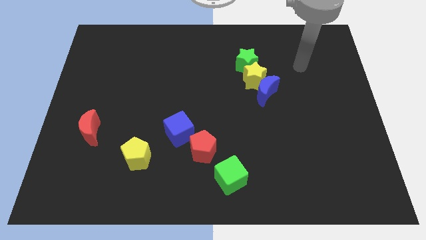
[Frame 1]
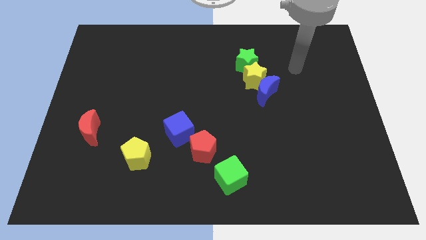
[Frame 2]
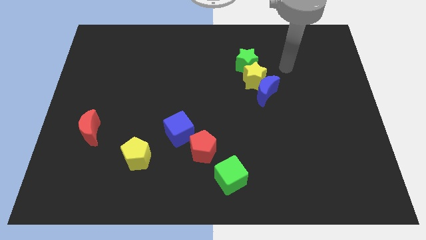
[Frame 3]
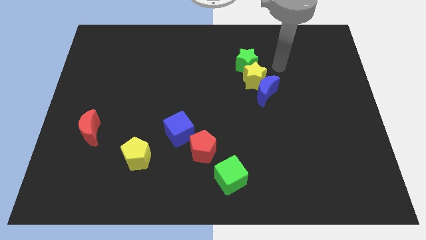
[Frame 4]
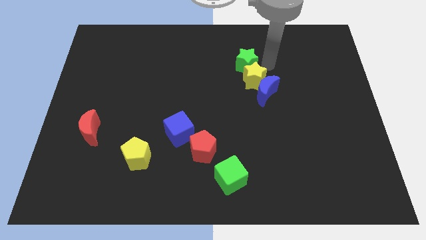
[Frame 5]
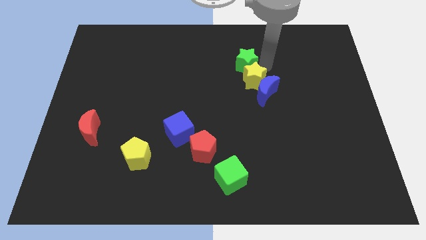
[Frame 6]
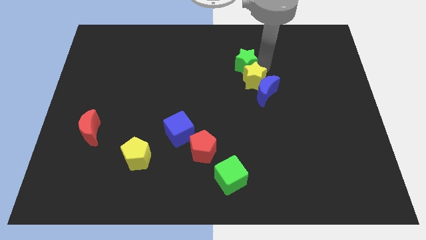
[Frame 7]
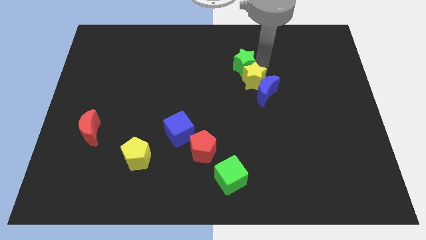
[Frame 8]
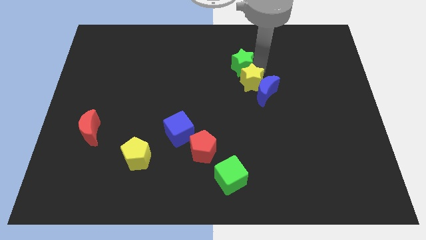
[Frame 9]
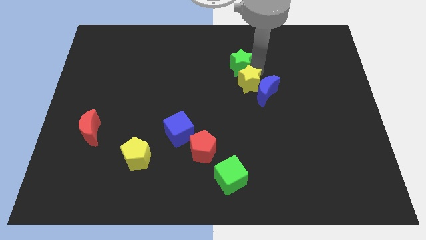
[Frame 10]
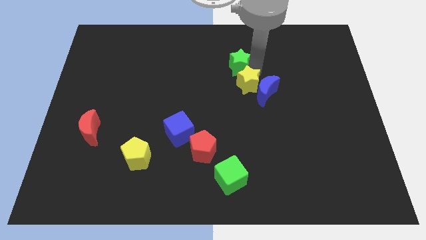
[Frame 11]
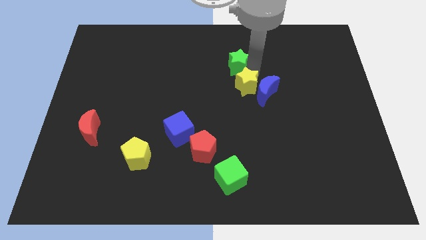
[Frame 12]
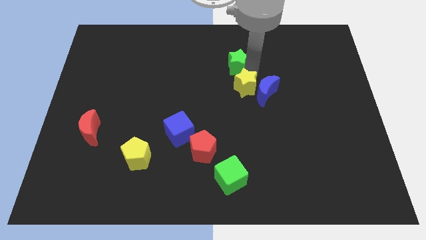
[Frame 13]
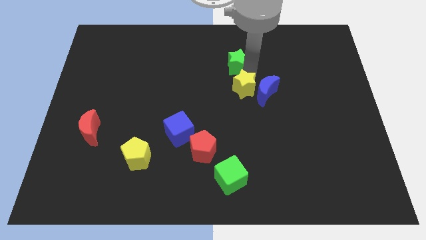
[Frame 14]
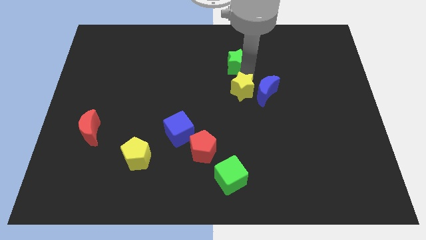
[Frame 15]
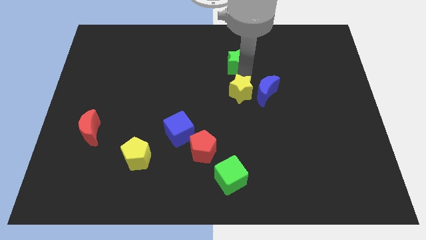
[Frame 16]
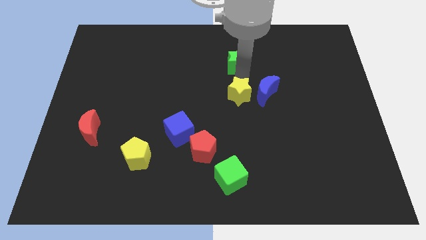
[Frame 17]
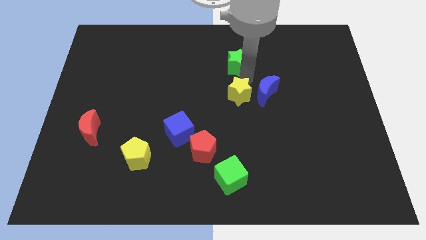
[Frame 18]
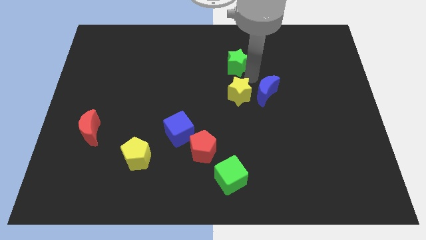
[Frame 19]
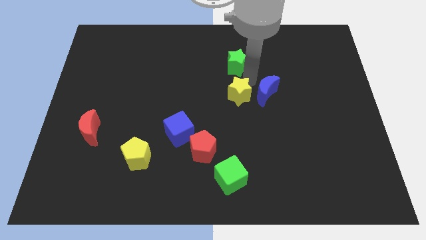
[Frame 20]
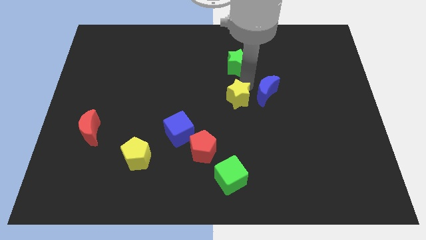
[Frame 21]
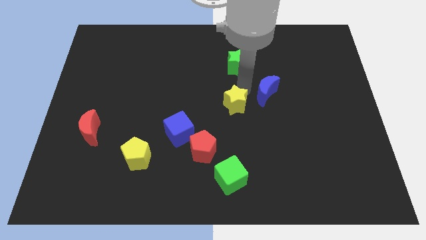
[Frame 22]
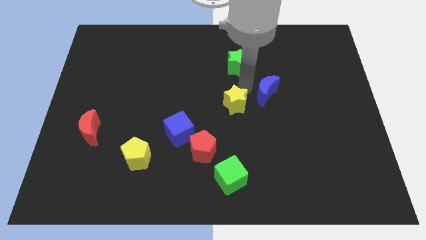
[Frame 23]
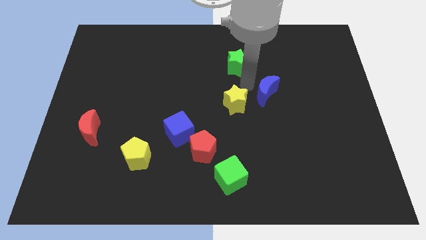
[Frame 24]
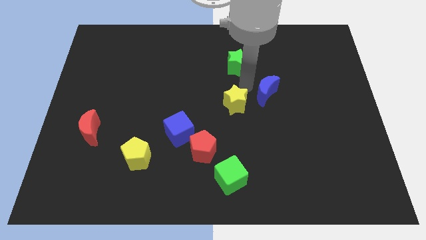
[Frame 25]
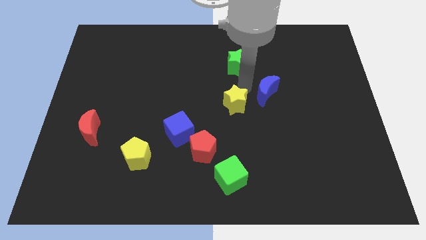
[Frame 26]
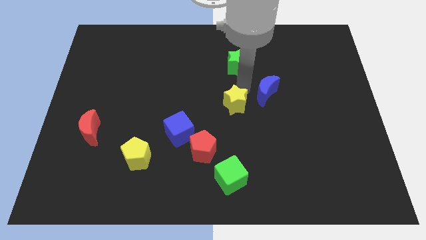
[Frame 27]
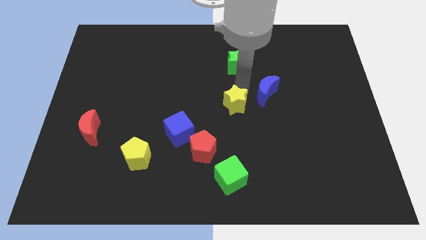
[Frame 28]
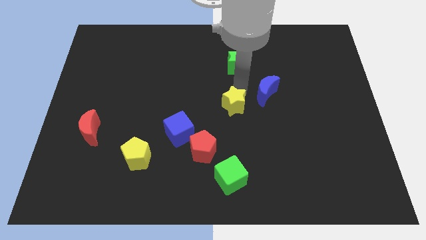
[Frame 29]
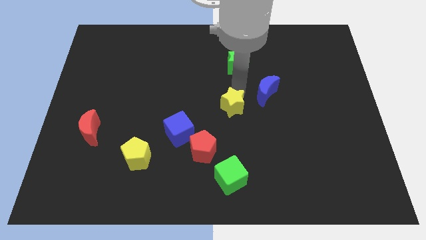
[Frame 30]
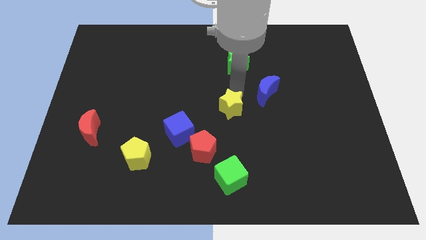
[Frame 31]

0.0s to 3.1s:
separate the yellow star from the blue moon and green star

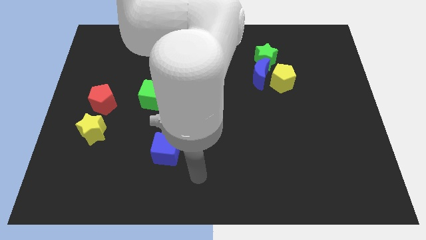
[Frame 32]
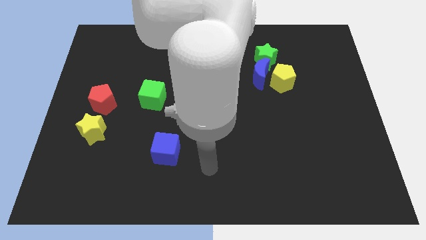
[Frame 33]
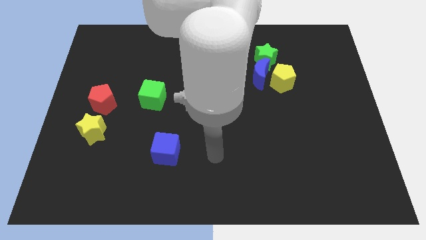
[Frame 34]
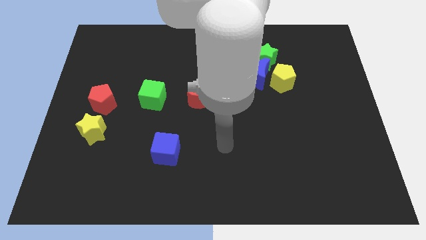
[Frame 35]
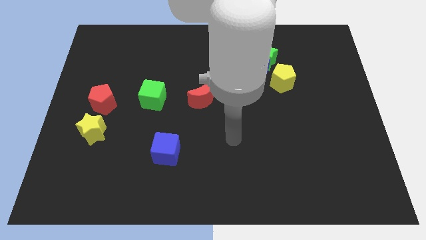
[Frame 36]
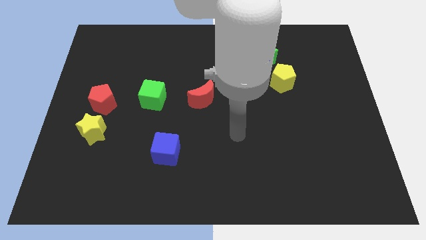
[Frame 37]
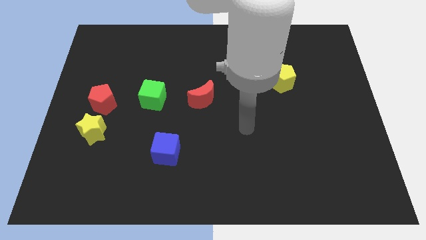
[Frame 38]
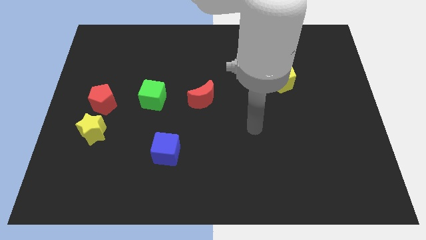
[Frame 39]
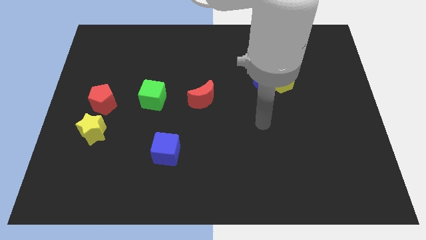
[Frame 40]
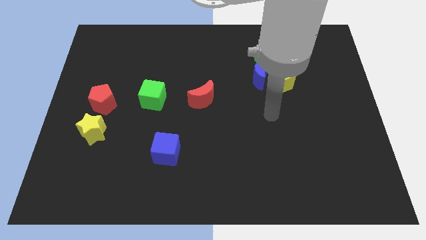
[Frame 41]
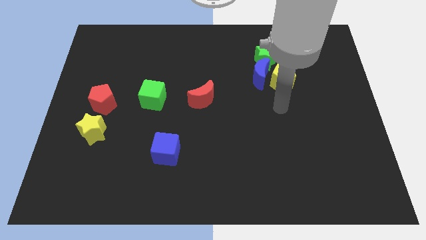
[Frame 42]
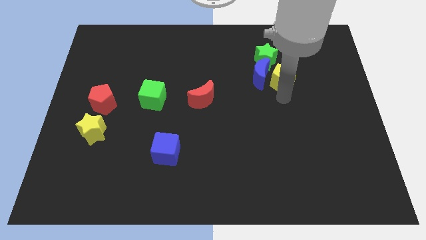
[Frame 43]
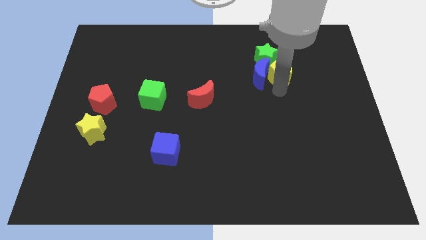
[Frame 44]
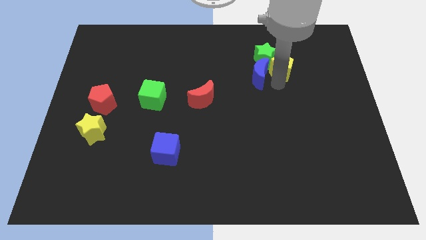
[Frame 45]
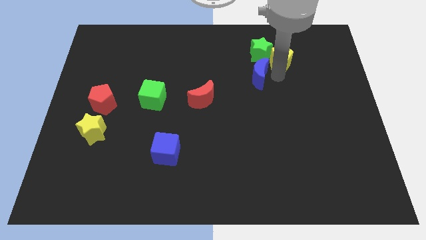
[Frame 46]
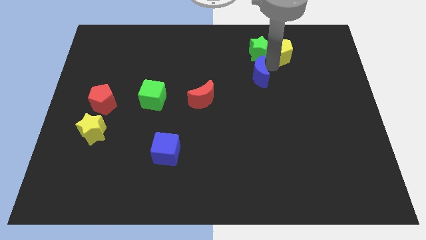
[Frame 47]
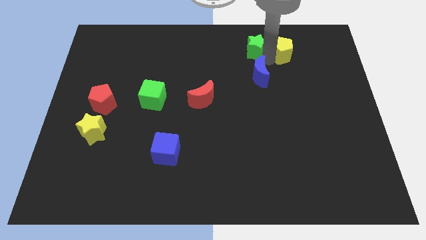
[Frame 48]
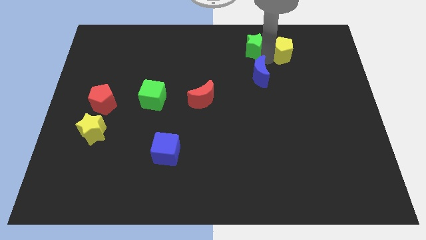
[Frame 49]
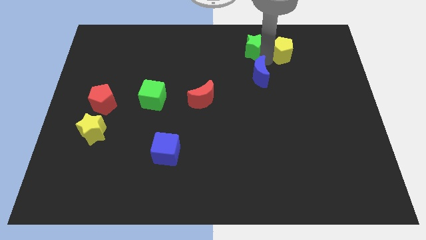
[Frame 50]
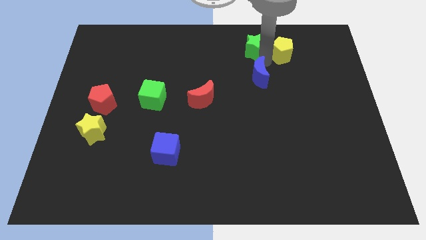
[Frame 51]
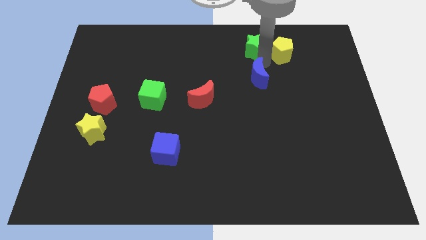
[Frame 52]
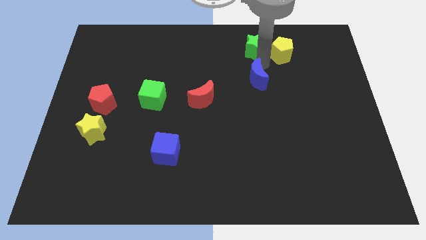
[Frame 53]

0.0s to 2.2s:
separate the blue moon from the yellow pentagon and green star

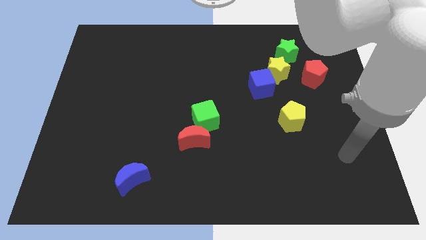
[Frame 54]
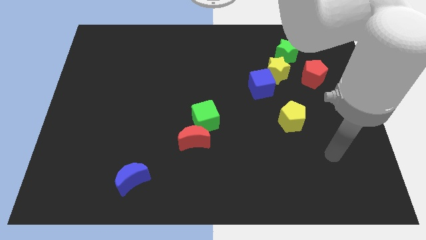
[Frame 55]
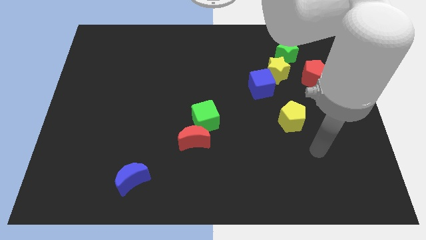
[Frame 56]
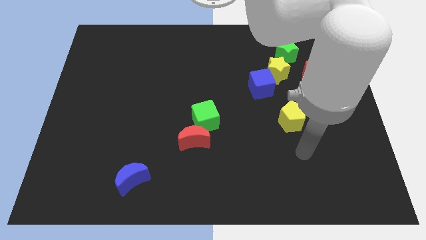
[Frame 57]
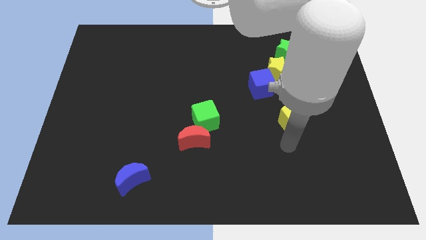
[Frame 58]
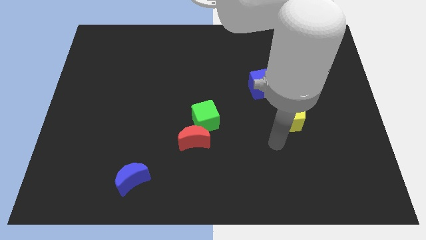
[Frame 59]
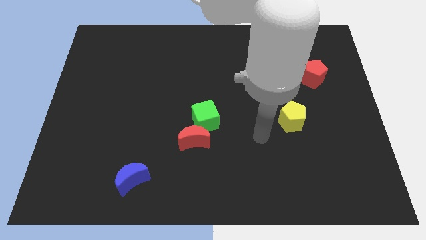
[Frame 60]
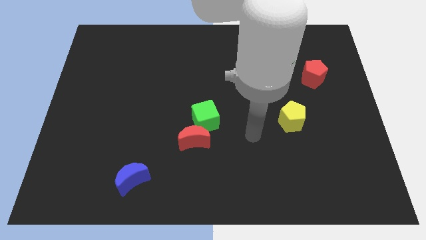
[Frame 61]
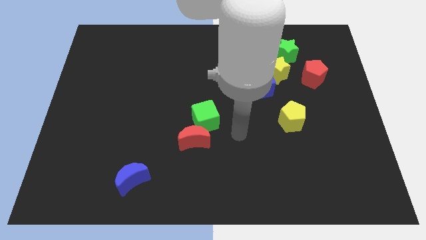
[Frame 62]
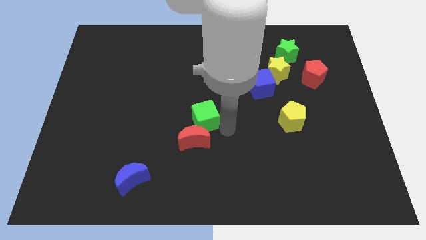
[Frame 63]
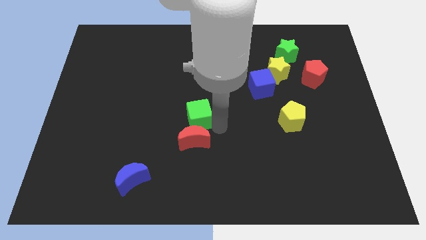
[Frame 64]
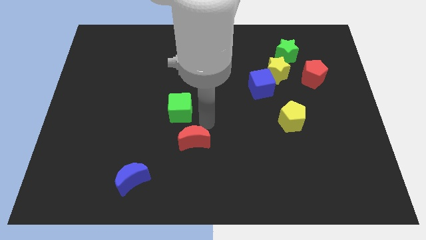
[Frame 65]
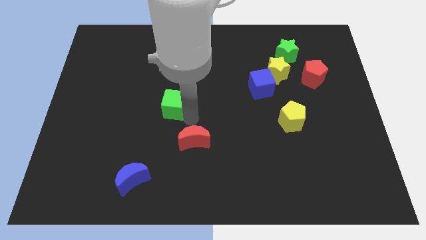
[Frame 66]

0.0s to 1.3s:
move the red moon away from the green cube

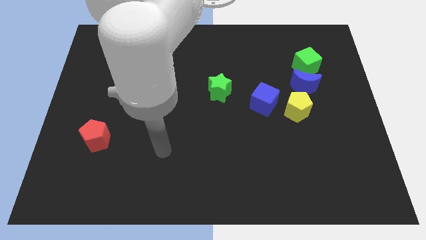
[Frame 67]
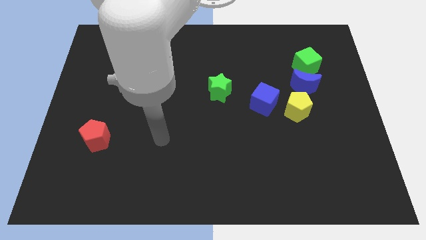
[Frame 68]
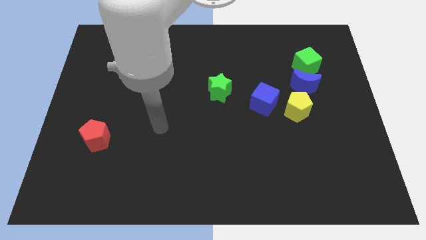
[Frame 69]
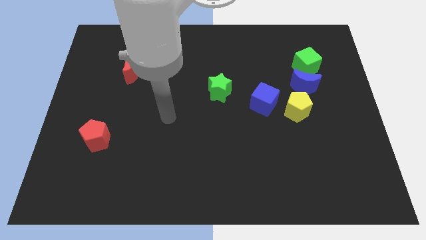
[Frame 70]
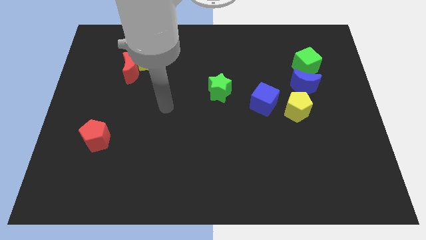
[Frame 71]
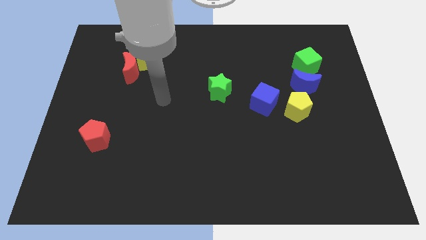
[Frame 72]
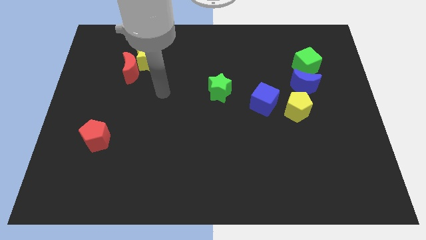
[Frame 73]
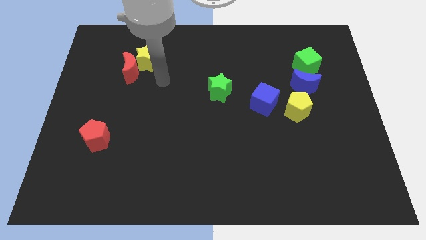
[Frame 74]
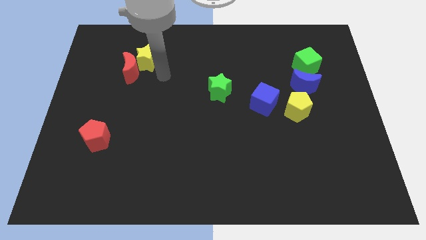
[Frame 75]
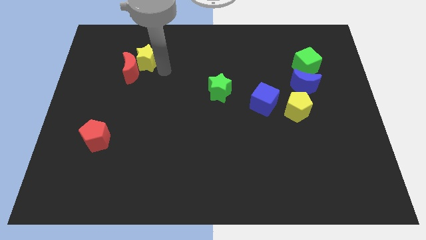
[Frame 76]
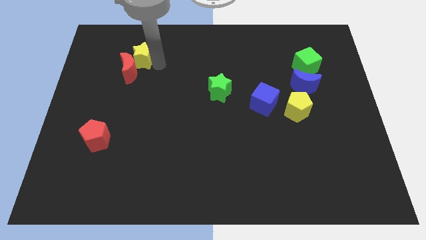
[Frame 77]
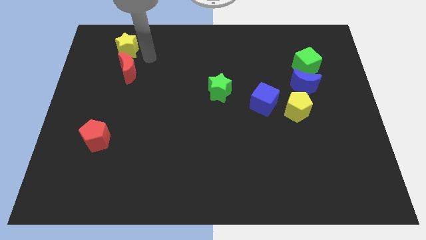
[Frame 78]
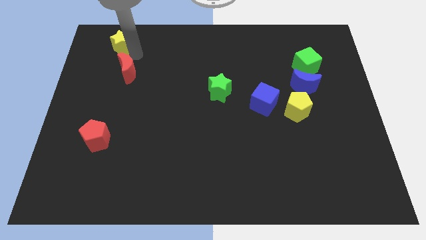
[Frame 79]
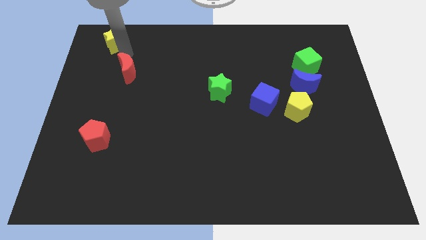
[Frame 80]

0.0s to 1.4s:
move the red moon away from the yellow star

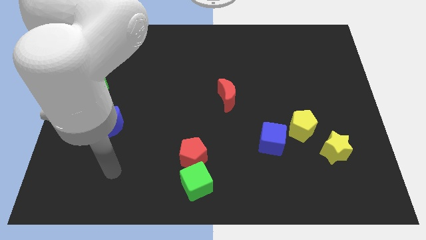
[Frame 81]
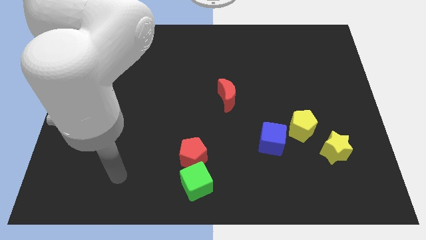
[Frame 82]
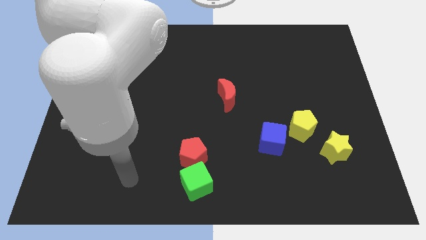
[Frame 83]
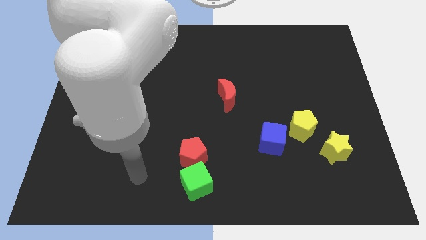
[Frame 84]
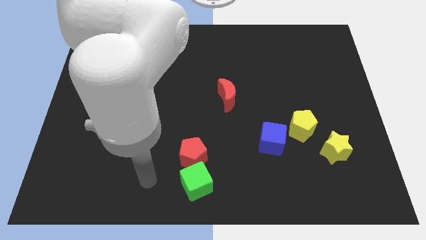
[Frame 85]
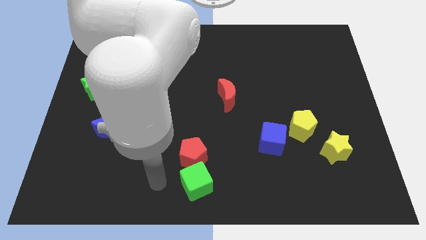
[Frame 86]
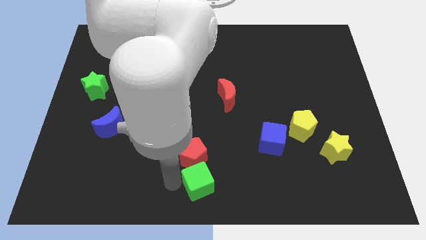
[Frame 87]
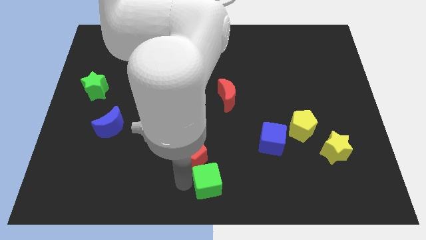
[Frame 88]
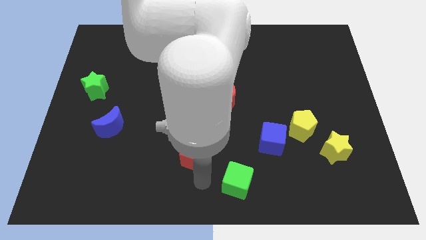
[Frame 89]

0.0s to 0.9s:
move the red pentagon away from the green cube

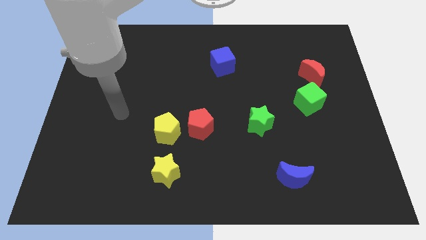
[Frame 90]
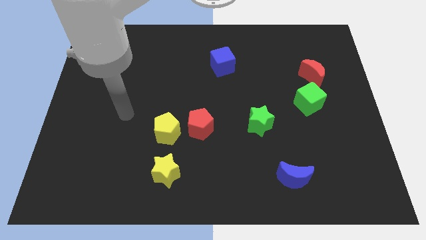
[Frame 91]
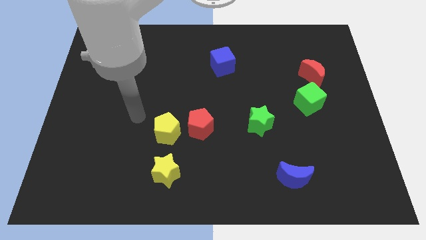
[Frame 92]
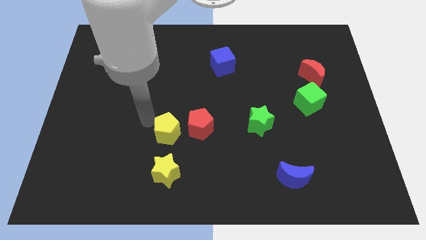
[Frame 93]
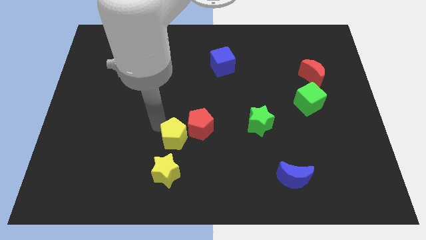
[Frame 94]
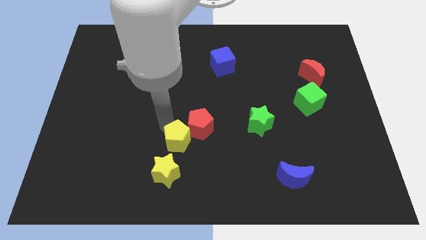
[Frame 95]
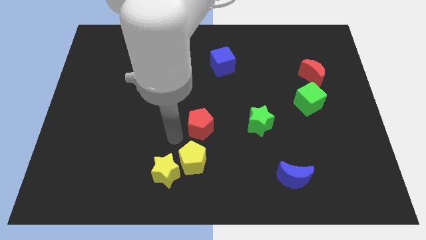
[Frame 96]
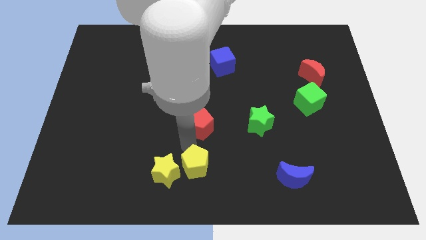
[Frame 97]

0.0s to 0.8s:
move the red pentagon away from the yellow pentagon
